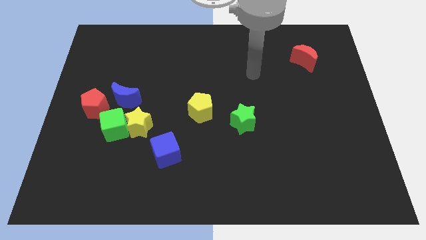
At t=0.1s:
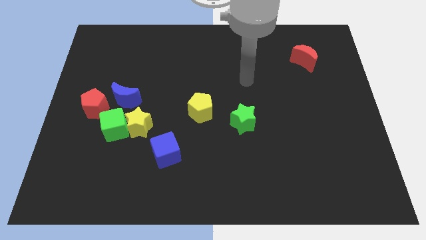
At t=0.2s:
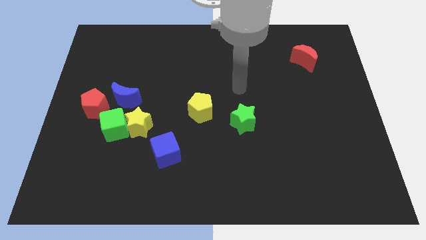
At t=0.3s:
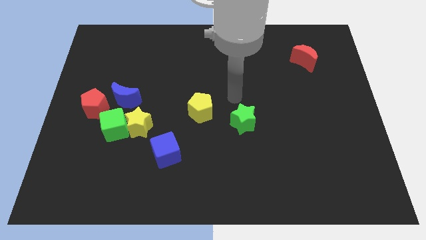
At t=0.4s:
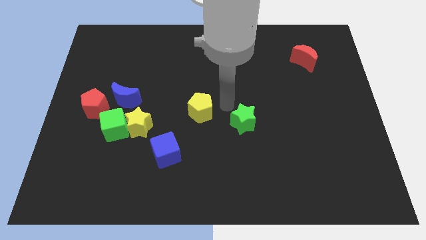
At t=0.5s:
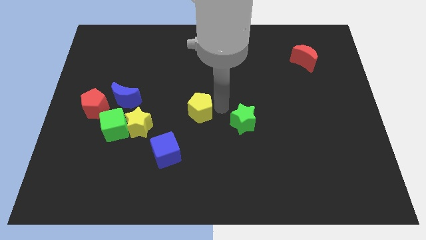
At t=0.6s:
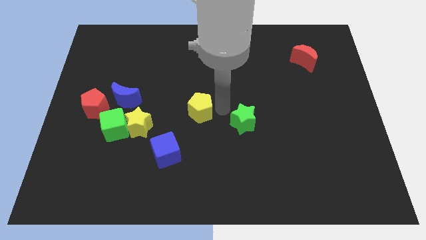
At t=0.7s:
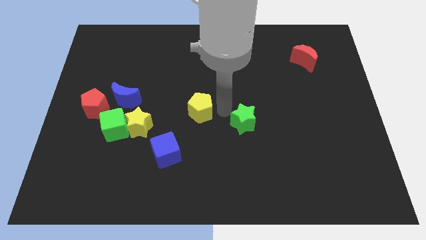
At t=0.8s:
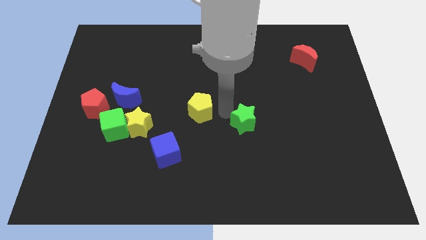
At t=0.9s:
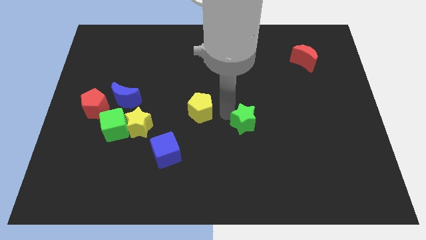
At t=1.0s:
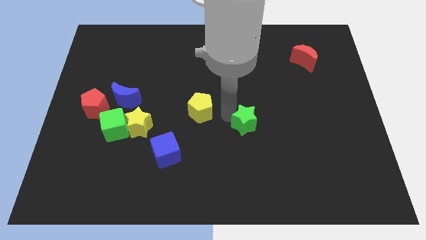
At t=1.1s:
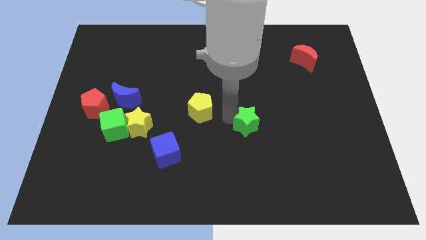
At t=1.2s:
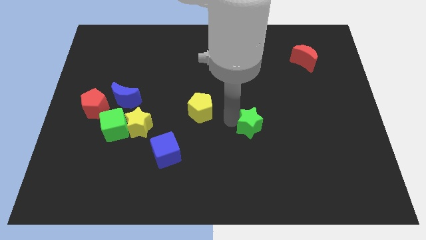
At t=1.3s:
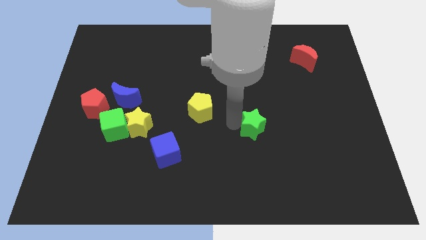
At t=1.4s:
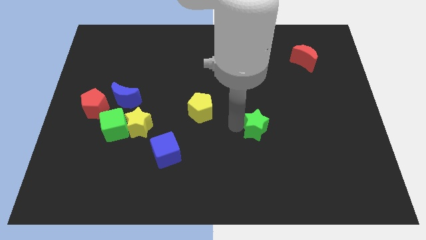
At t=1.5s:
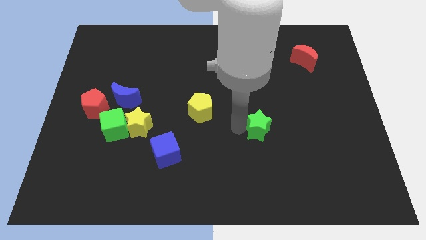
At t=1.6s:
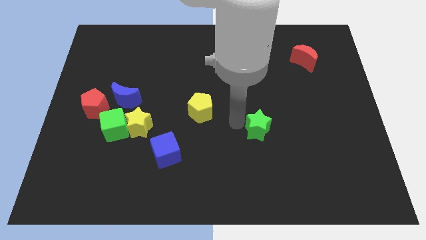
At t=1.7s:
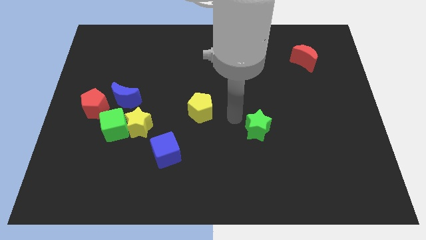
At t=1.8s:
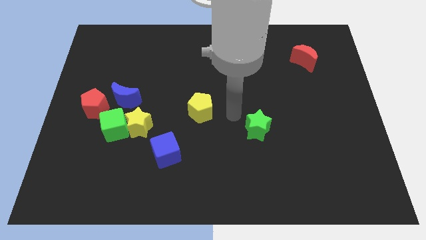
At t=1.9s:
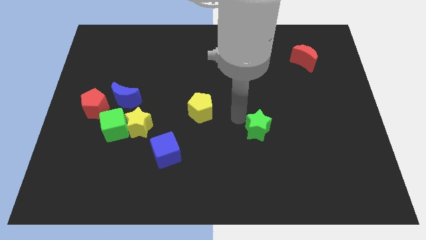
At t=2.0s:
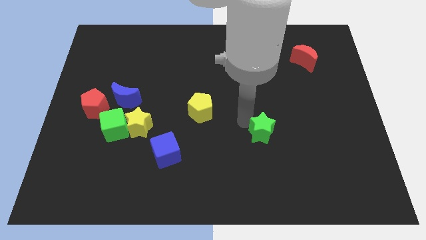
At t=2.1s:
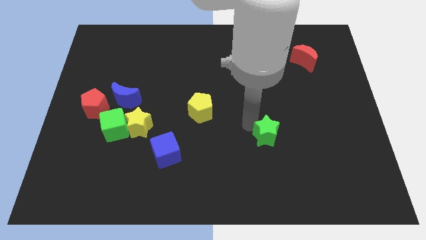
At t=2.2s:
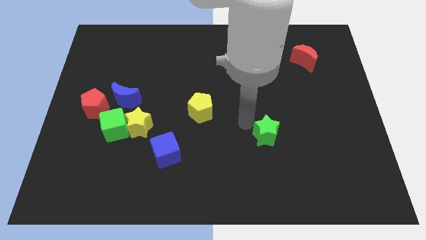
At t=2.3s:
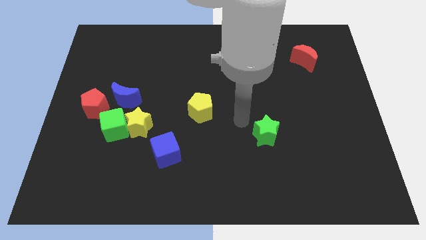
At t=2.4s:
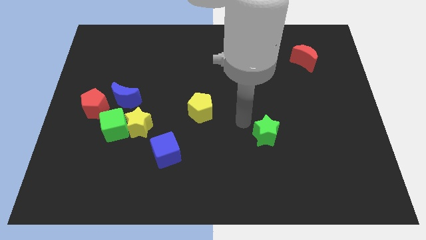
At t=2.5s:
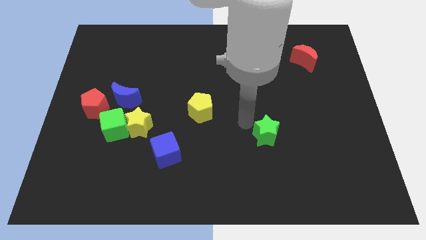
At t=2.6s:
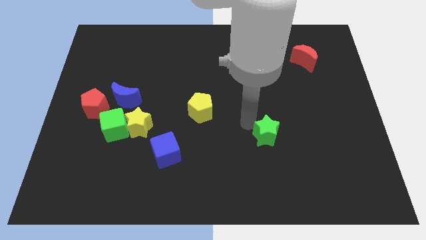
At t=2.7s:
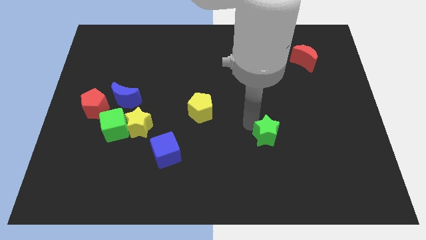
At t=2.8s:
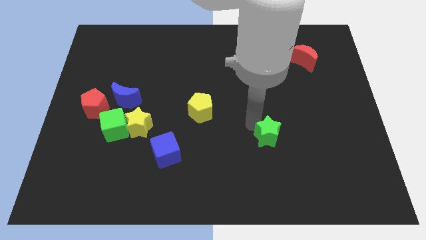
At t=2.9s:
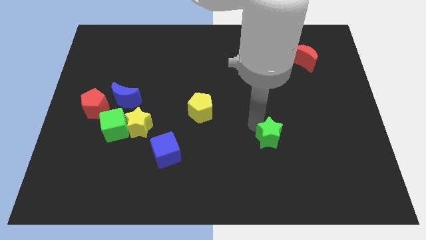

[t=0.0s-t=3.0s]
push the green star slightly diagonally down and to the right

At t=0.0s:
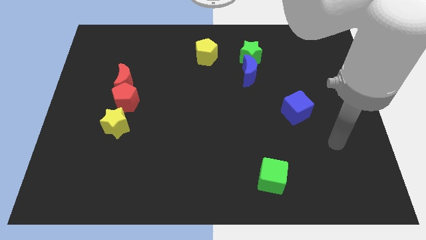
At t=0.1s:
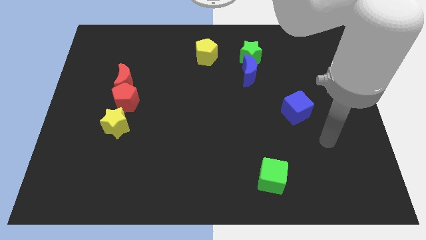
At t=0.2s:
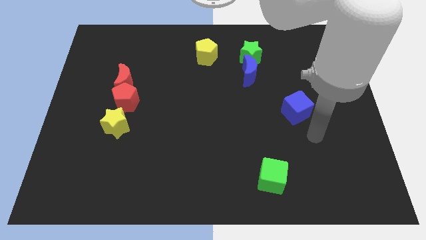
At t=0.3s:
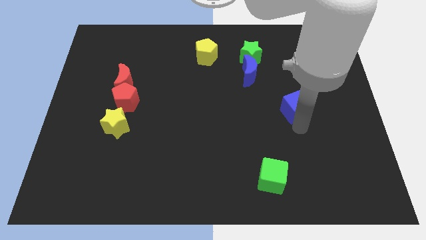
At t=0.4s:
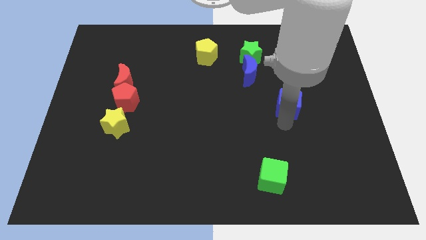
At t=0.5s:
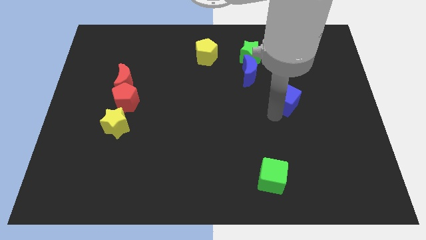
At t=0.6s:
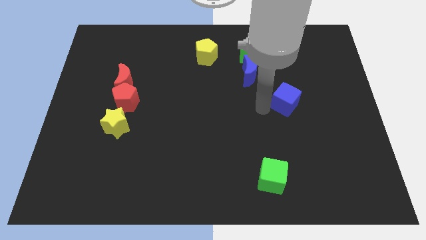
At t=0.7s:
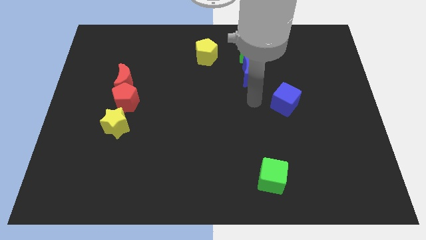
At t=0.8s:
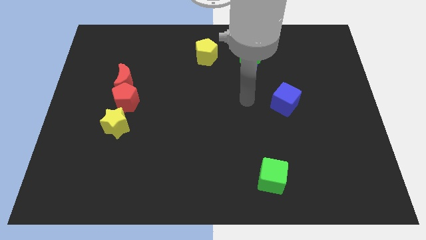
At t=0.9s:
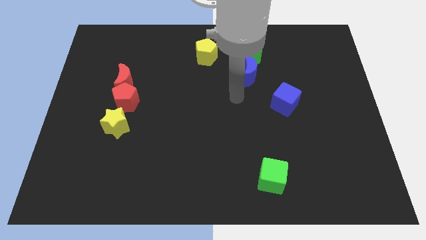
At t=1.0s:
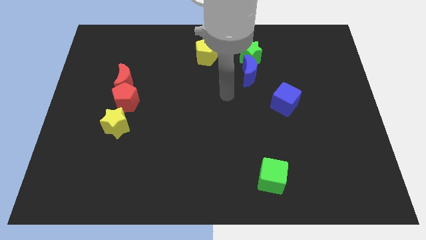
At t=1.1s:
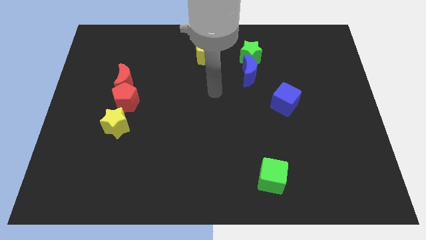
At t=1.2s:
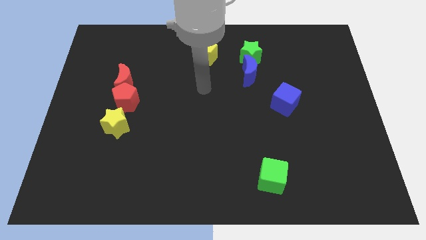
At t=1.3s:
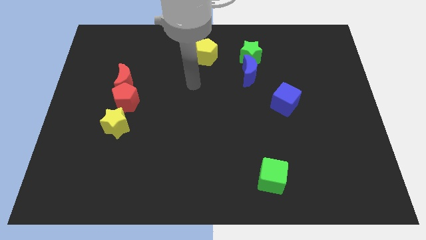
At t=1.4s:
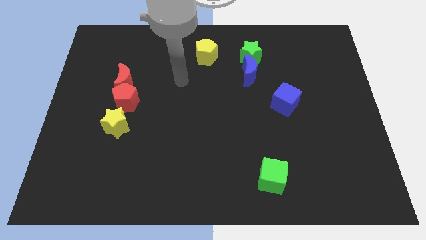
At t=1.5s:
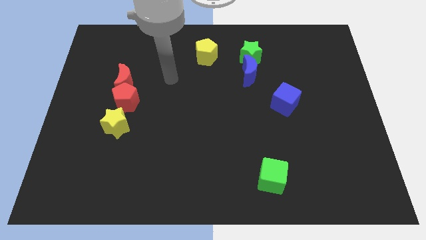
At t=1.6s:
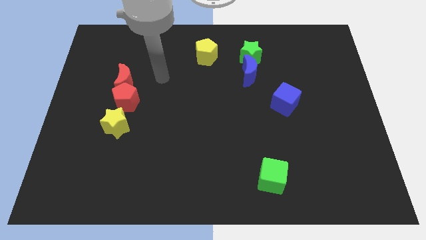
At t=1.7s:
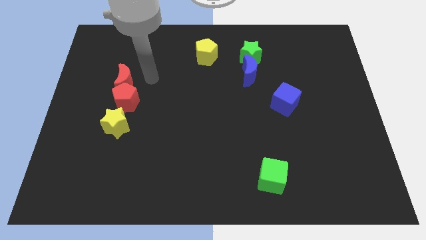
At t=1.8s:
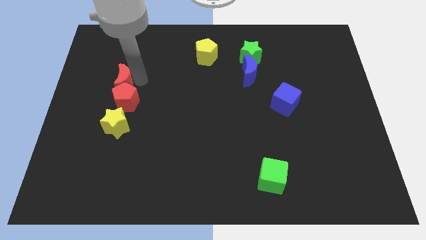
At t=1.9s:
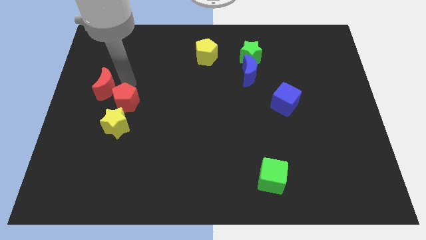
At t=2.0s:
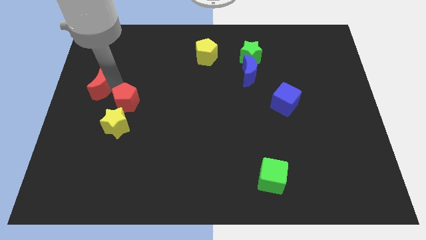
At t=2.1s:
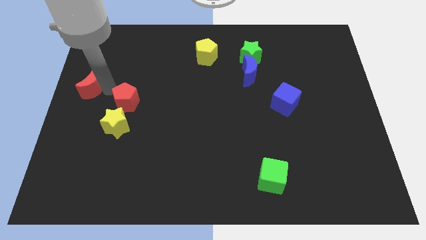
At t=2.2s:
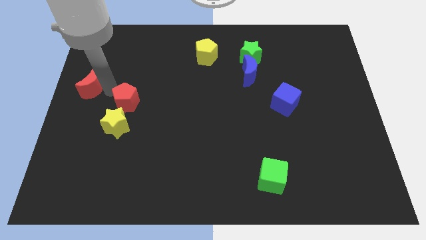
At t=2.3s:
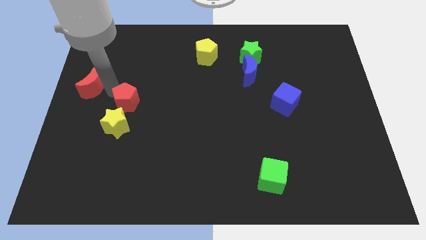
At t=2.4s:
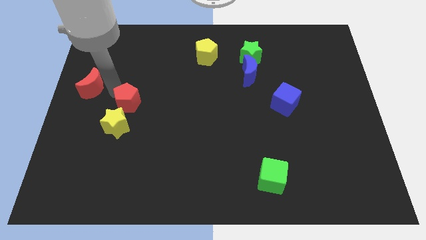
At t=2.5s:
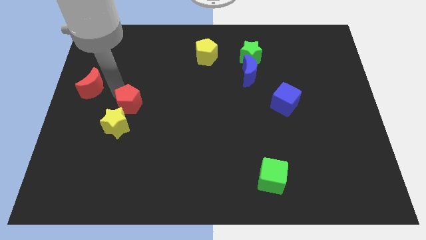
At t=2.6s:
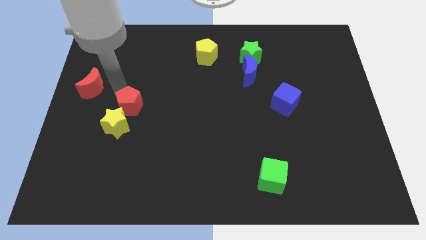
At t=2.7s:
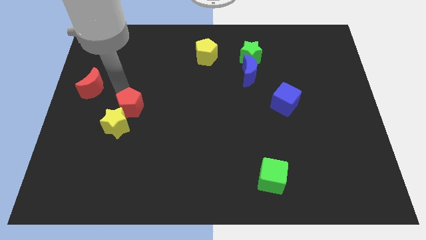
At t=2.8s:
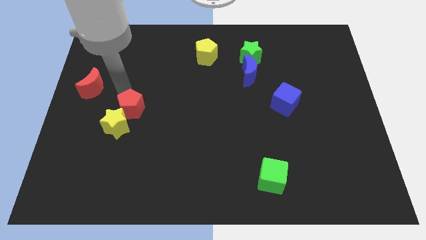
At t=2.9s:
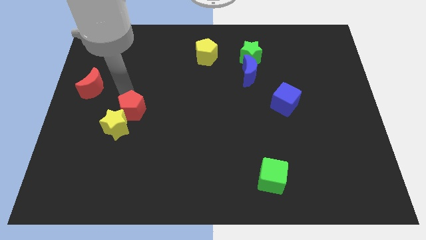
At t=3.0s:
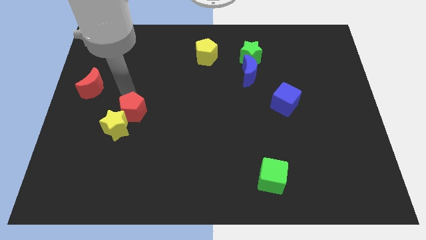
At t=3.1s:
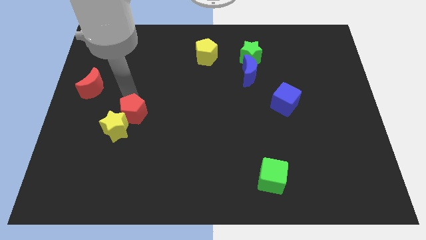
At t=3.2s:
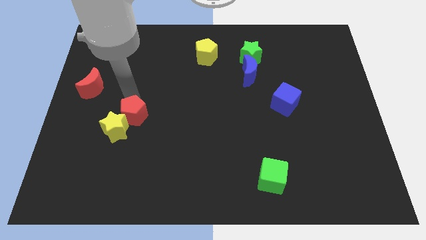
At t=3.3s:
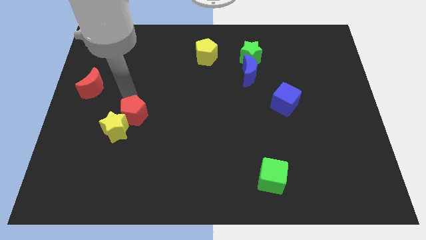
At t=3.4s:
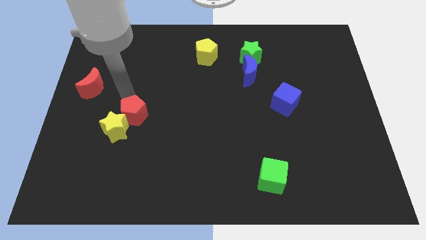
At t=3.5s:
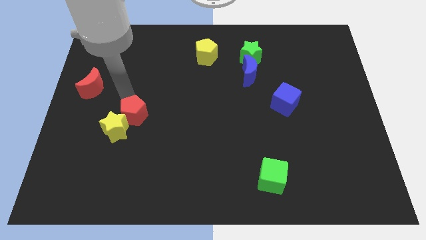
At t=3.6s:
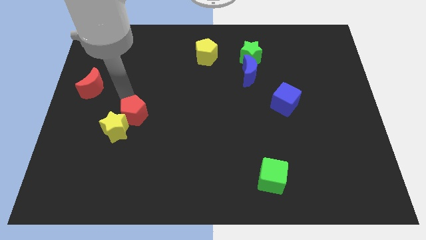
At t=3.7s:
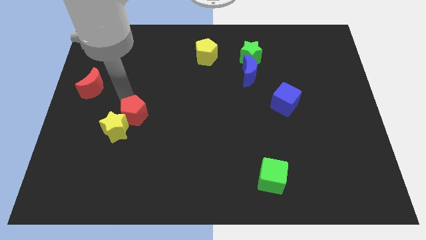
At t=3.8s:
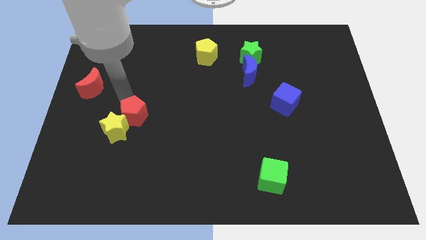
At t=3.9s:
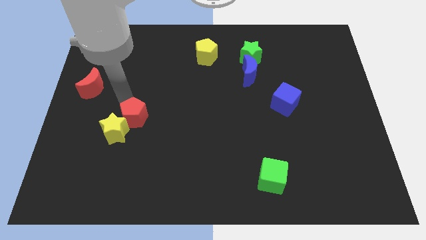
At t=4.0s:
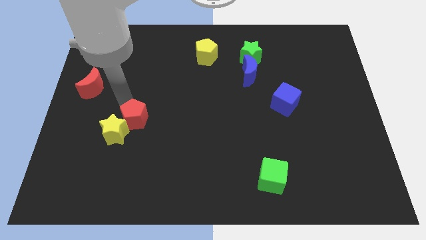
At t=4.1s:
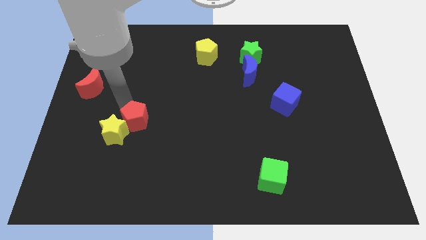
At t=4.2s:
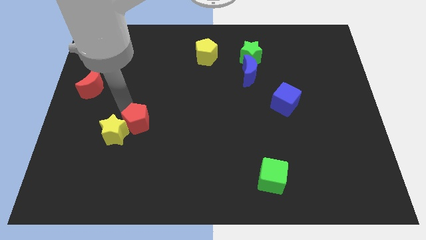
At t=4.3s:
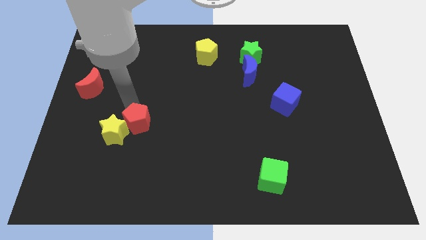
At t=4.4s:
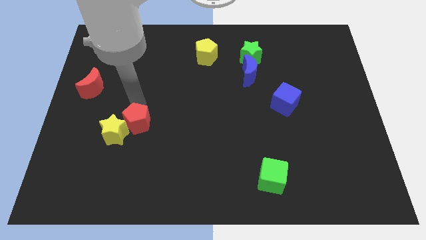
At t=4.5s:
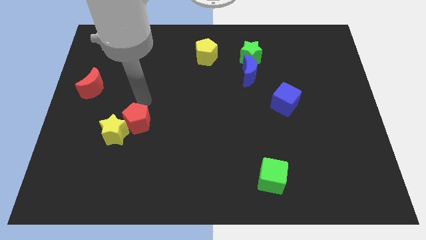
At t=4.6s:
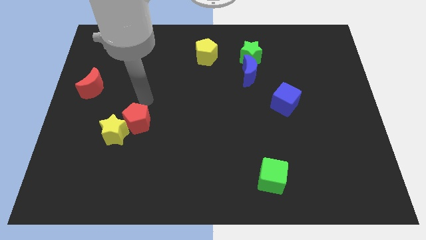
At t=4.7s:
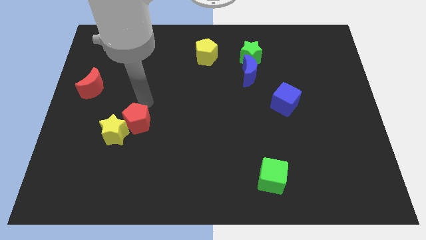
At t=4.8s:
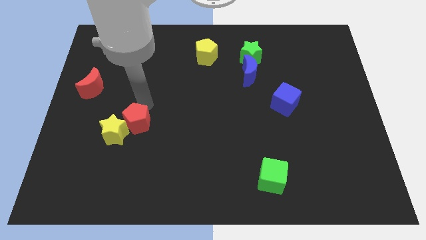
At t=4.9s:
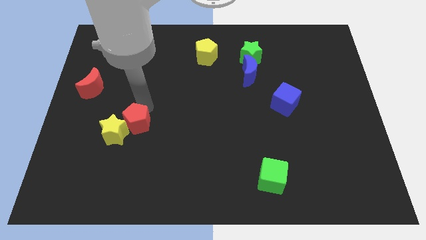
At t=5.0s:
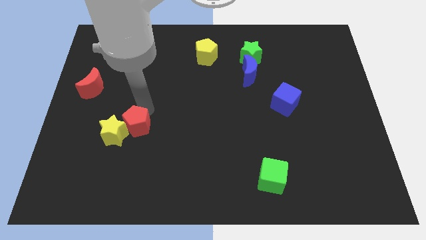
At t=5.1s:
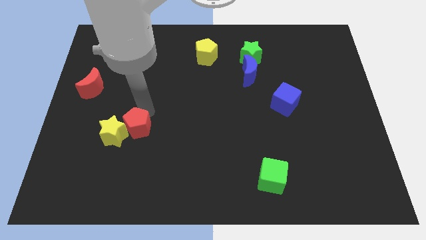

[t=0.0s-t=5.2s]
move the red pentagon a little bit down
